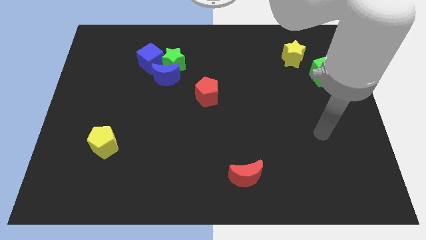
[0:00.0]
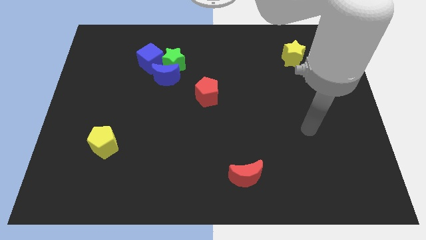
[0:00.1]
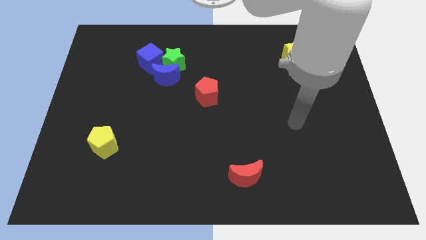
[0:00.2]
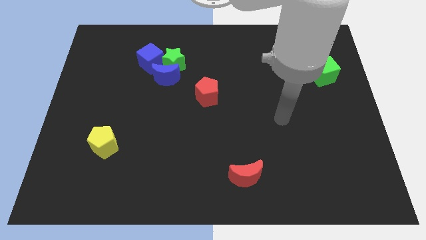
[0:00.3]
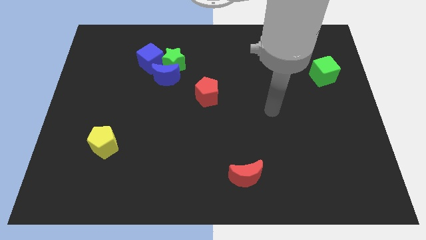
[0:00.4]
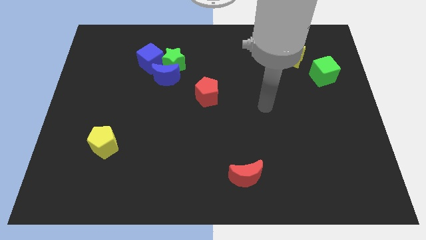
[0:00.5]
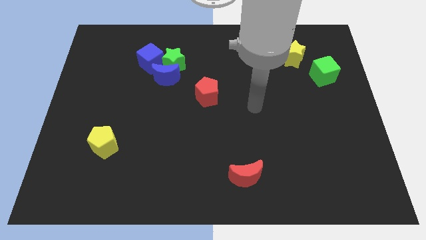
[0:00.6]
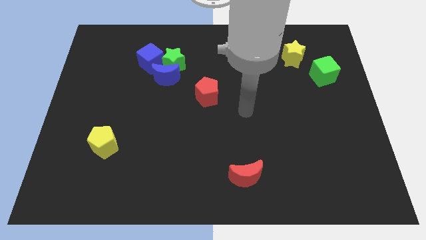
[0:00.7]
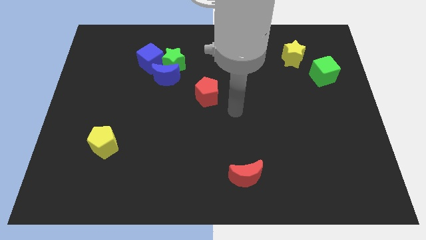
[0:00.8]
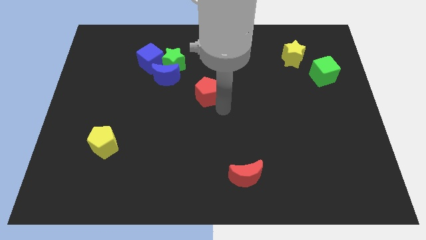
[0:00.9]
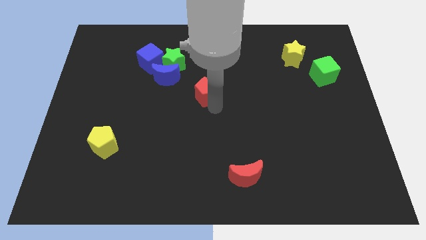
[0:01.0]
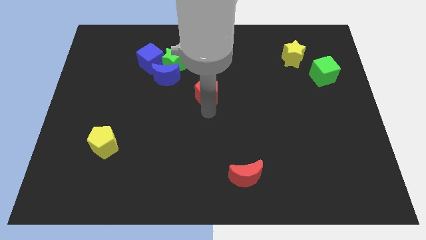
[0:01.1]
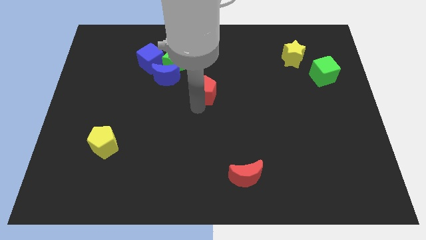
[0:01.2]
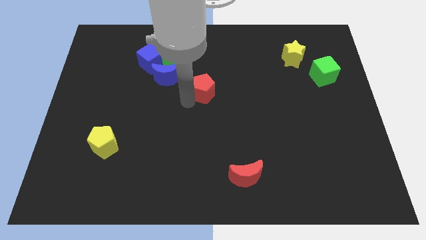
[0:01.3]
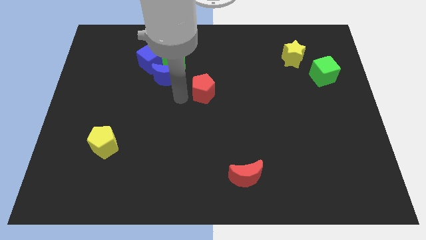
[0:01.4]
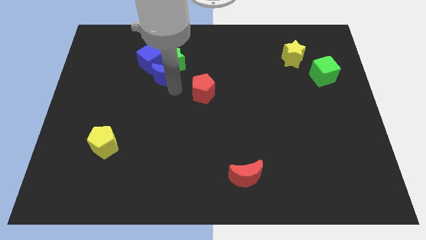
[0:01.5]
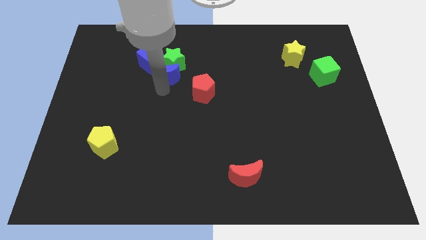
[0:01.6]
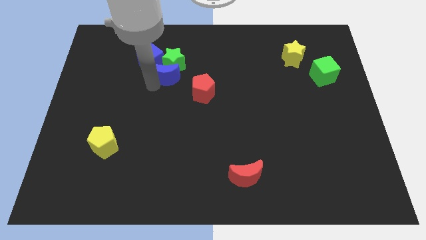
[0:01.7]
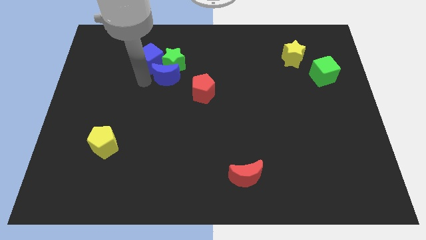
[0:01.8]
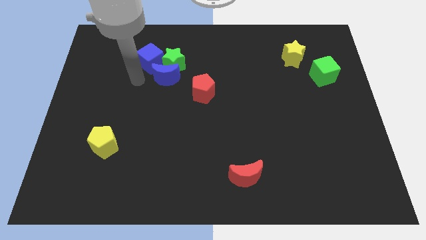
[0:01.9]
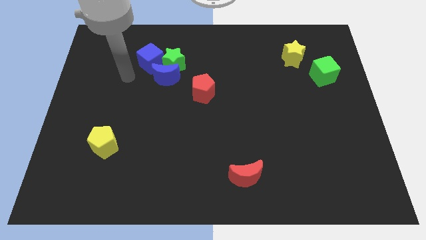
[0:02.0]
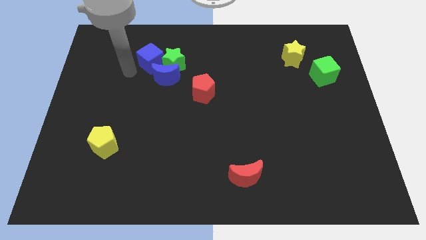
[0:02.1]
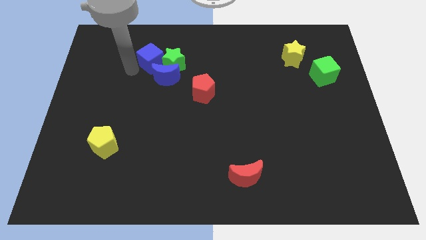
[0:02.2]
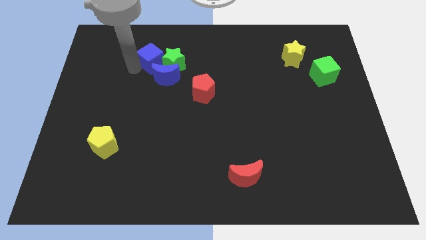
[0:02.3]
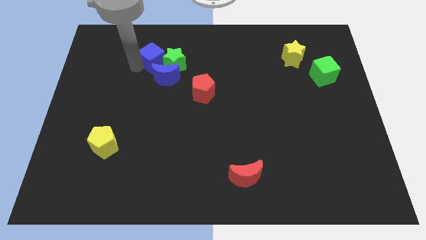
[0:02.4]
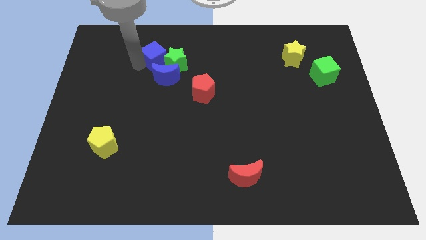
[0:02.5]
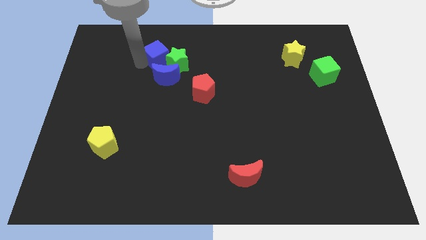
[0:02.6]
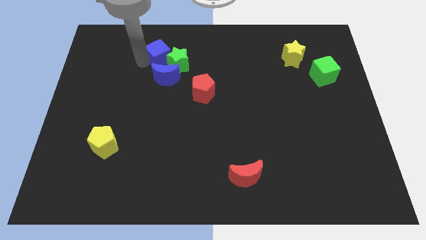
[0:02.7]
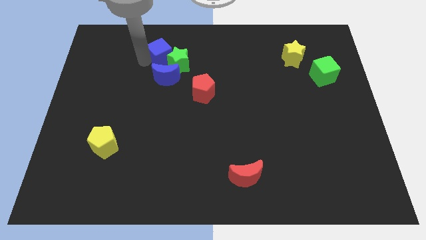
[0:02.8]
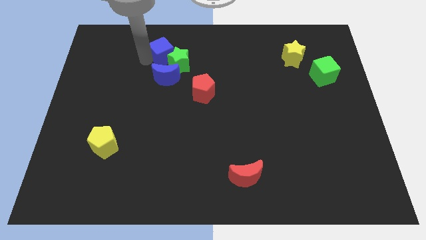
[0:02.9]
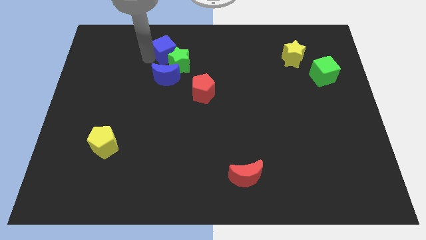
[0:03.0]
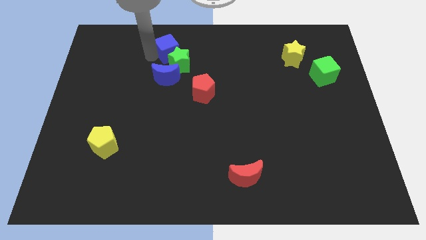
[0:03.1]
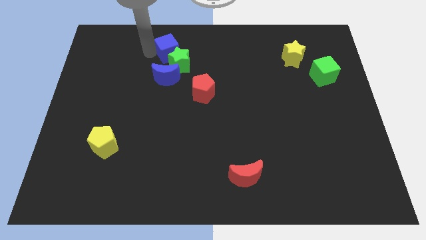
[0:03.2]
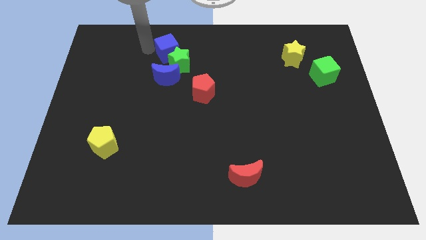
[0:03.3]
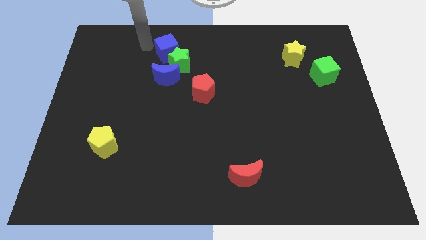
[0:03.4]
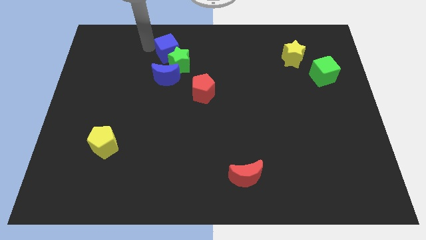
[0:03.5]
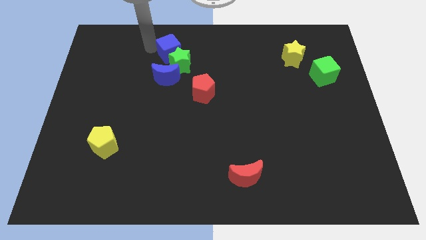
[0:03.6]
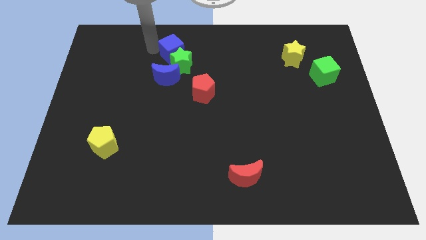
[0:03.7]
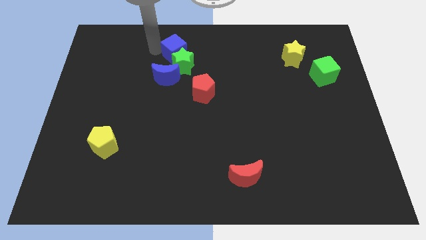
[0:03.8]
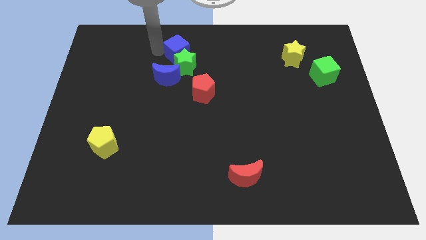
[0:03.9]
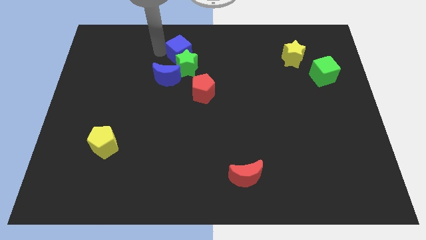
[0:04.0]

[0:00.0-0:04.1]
slide the blue cube a little to the right

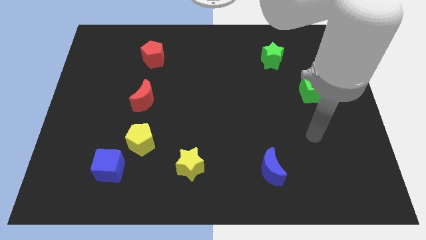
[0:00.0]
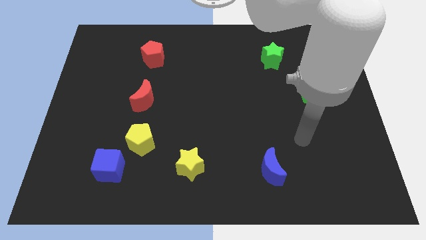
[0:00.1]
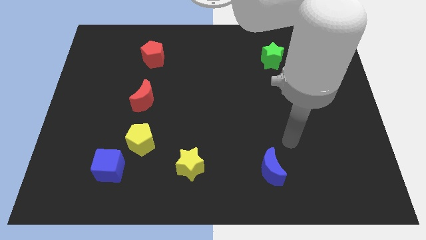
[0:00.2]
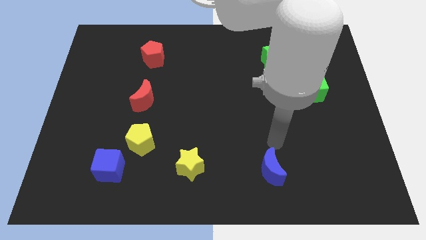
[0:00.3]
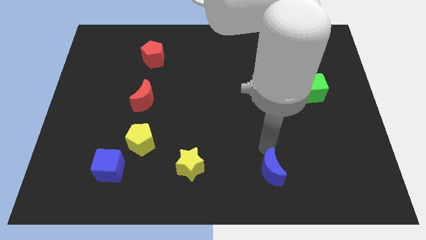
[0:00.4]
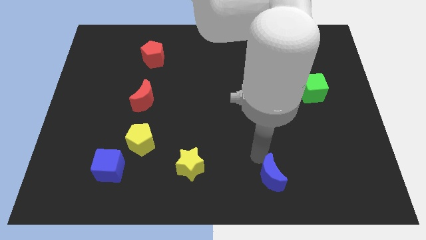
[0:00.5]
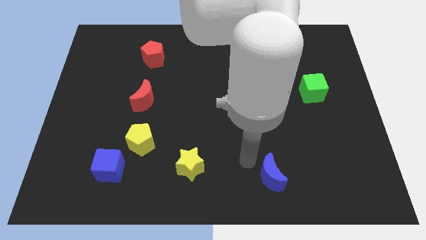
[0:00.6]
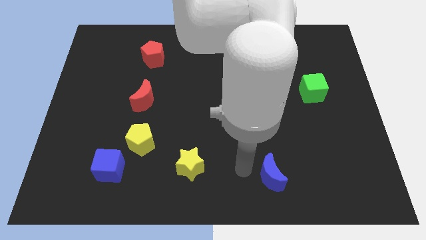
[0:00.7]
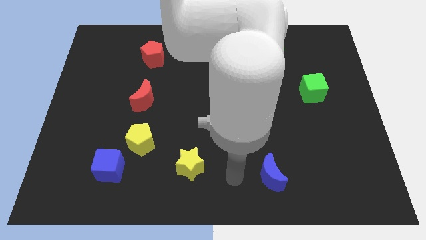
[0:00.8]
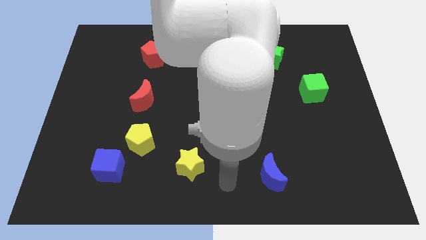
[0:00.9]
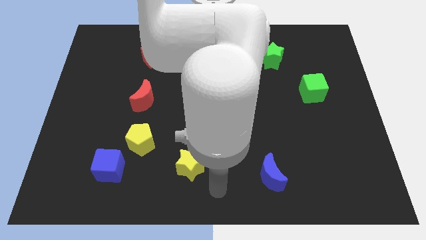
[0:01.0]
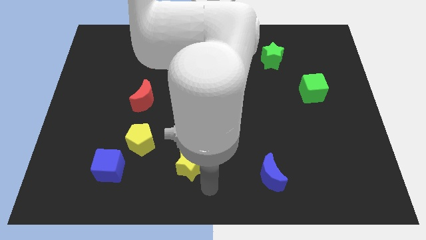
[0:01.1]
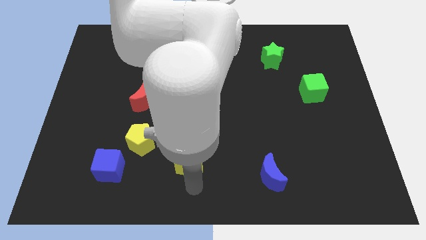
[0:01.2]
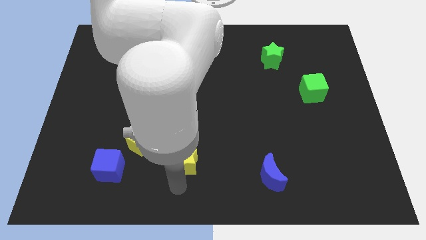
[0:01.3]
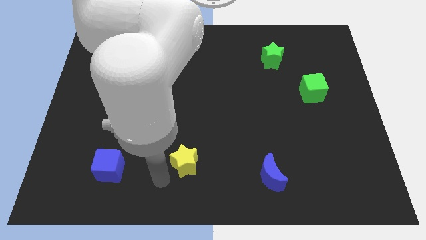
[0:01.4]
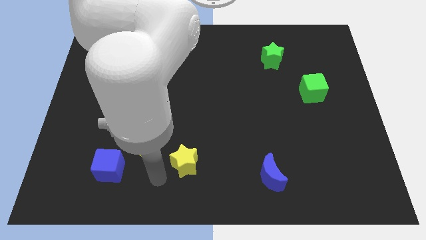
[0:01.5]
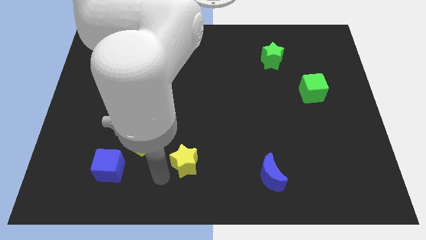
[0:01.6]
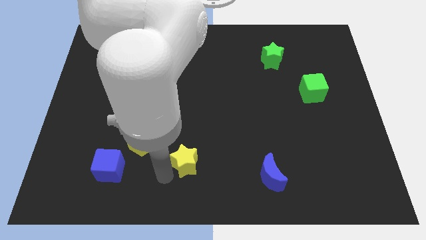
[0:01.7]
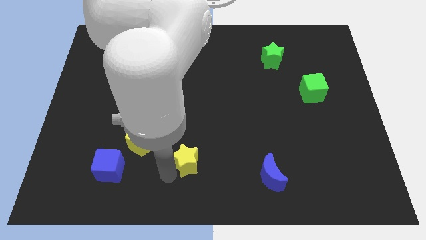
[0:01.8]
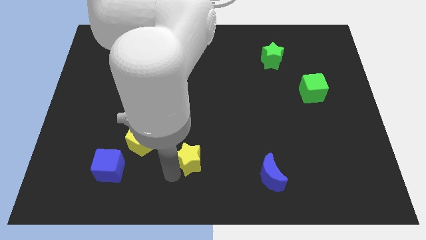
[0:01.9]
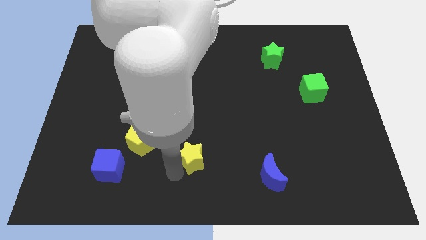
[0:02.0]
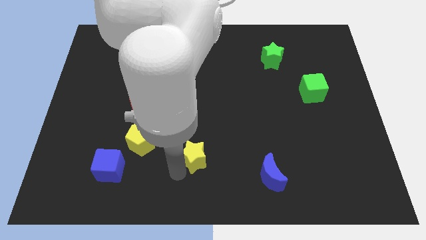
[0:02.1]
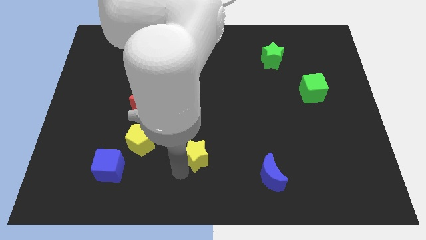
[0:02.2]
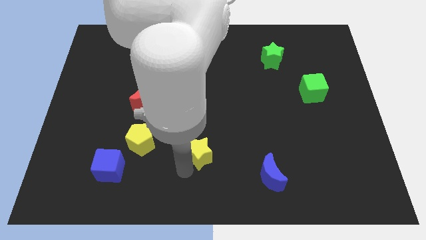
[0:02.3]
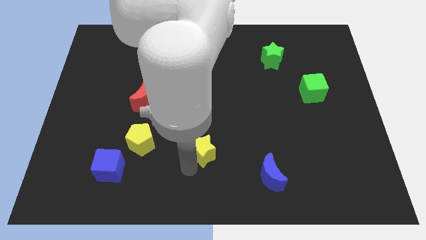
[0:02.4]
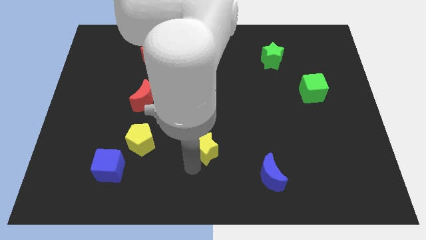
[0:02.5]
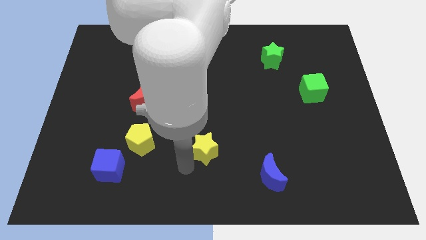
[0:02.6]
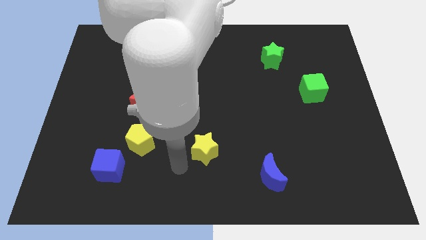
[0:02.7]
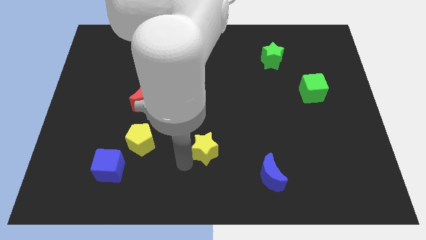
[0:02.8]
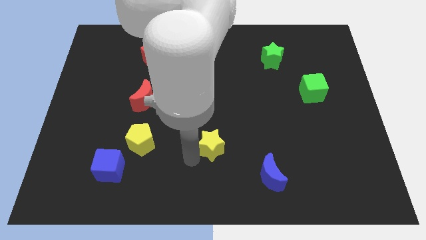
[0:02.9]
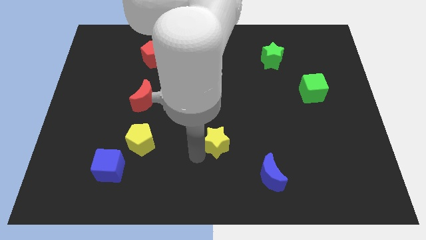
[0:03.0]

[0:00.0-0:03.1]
push the yellow star somewhat upwards and right diagonally

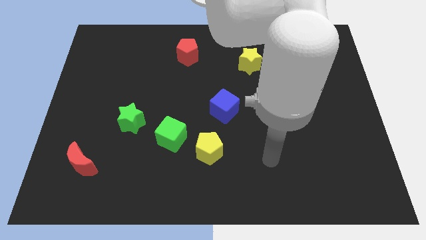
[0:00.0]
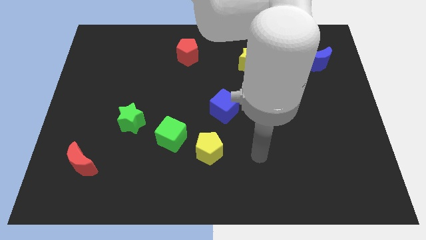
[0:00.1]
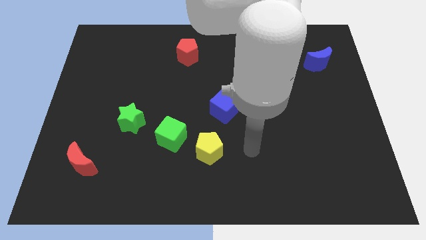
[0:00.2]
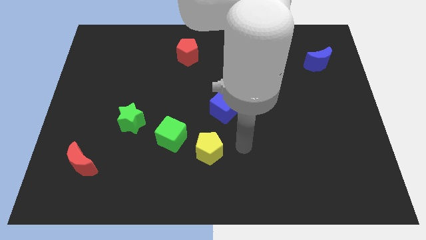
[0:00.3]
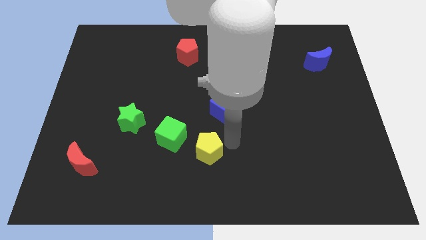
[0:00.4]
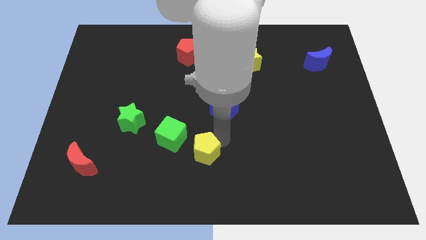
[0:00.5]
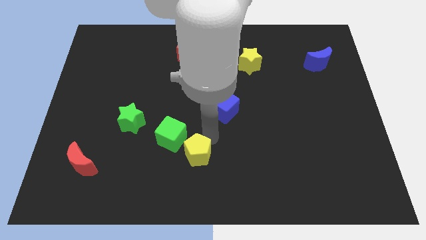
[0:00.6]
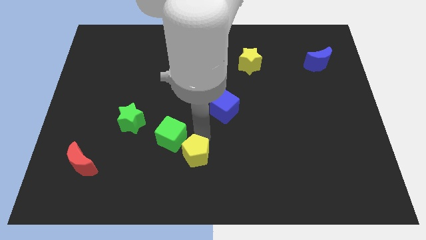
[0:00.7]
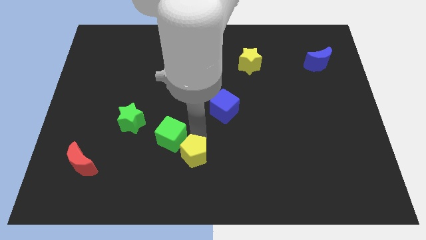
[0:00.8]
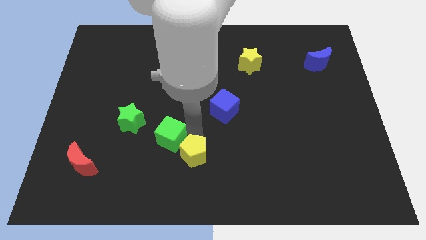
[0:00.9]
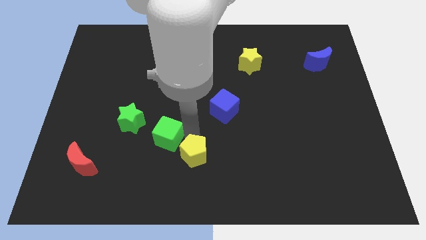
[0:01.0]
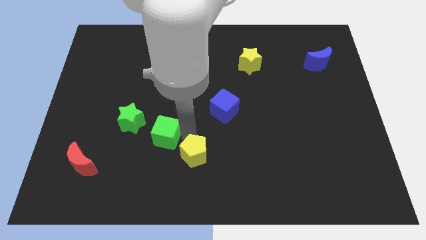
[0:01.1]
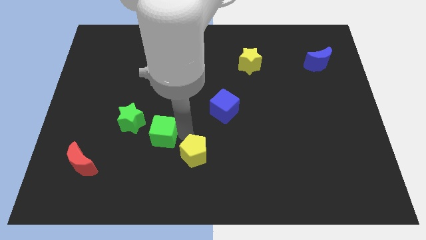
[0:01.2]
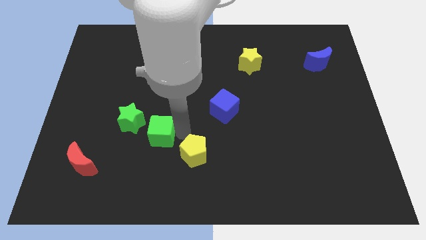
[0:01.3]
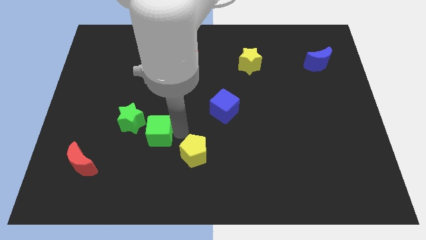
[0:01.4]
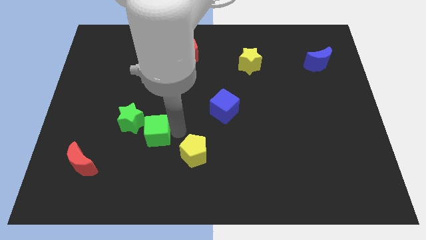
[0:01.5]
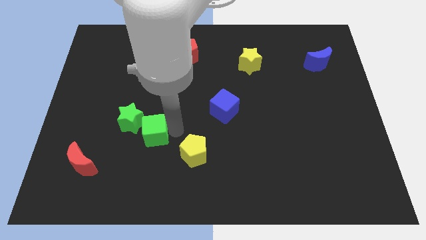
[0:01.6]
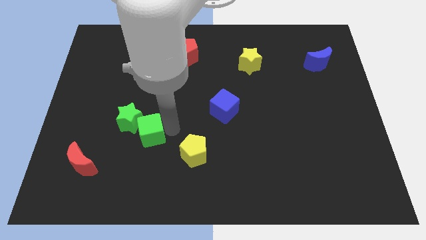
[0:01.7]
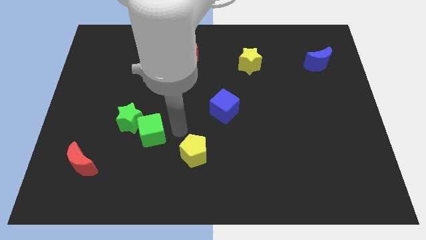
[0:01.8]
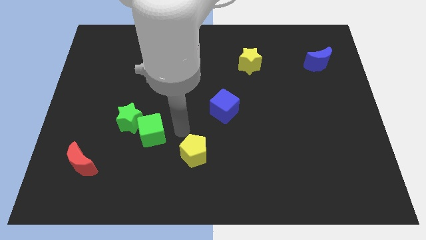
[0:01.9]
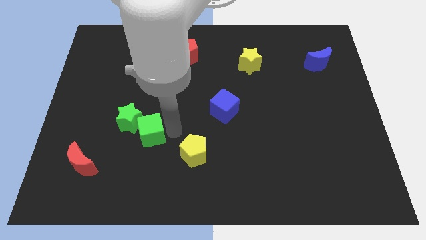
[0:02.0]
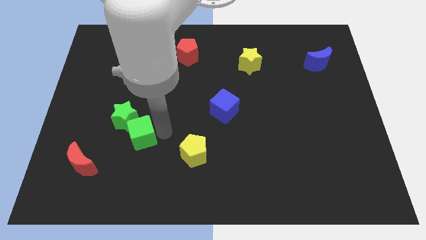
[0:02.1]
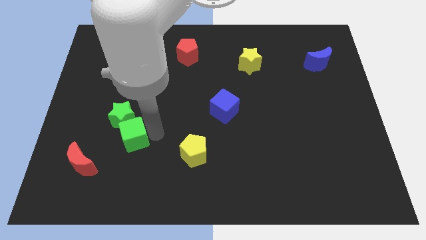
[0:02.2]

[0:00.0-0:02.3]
slide the green cube a bit to the left
